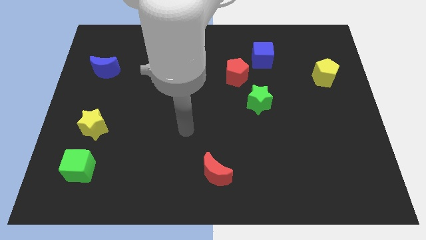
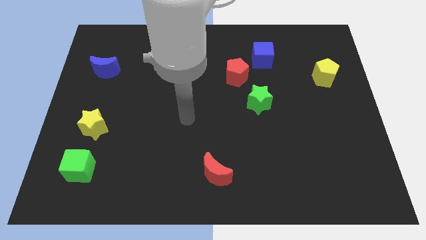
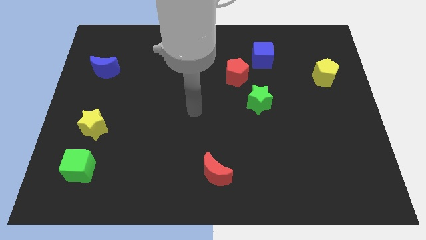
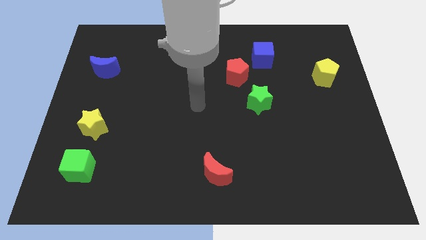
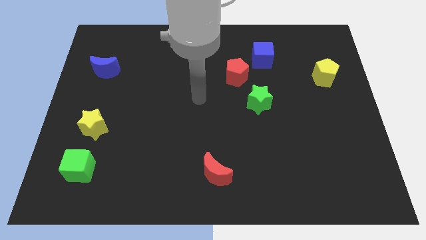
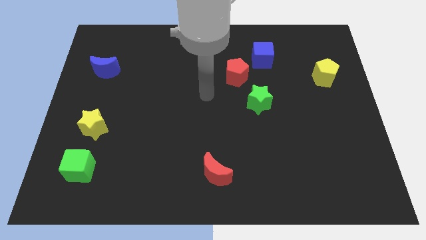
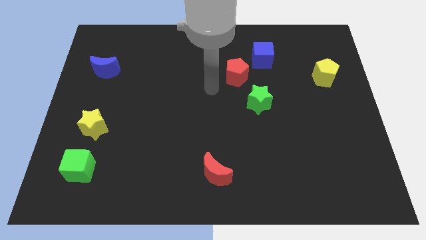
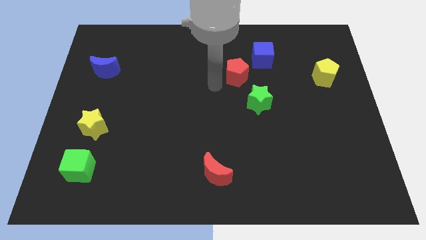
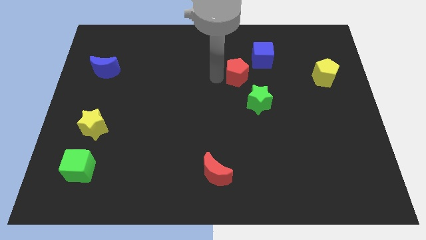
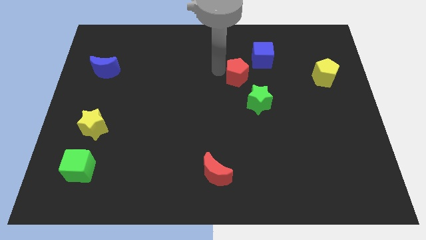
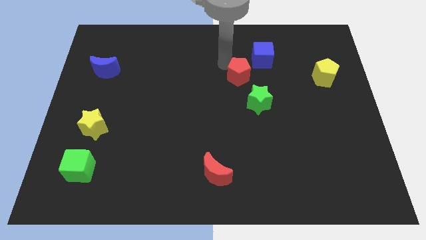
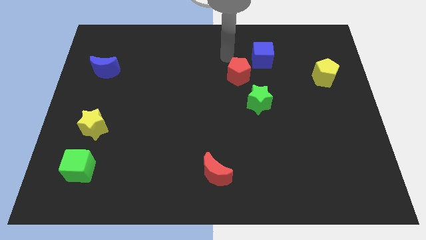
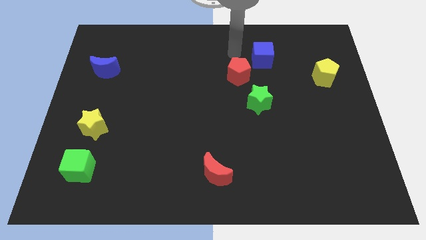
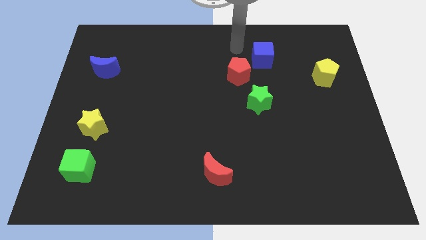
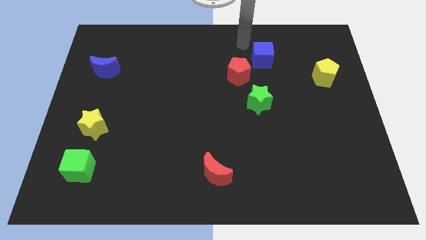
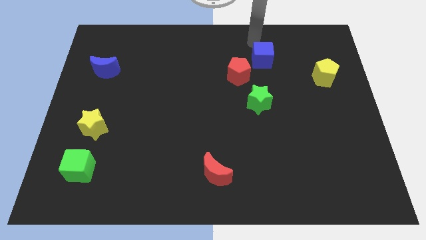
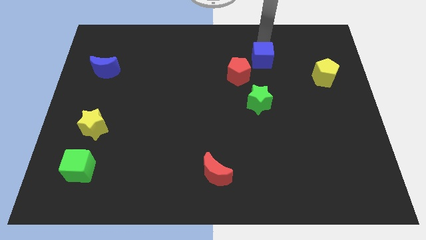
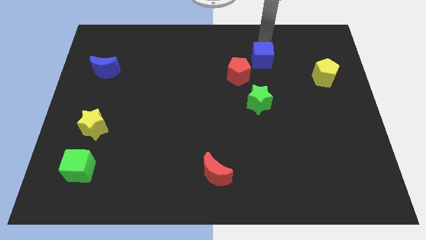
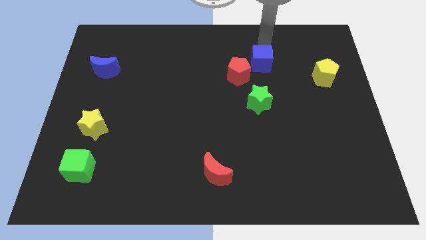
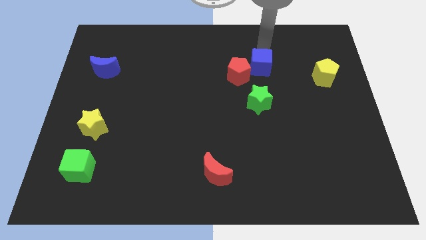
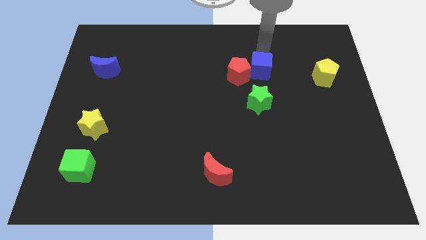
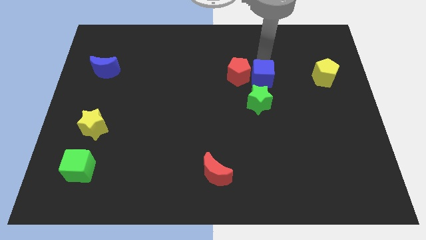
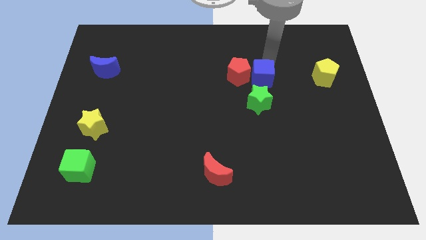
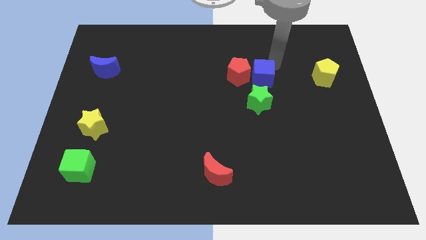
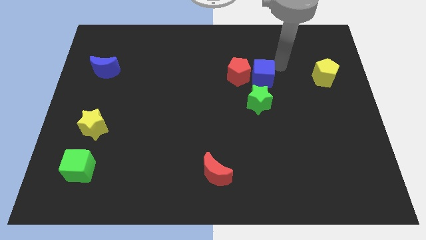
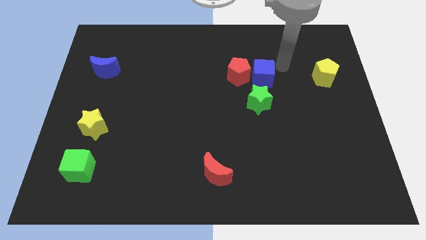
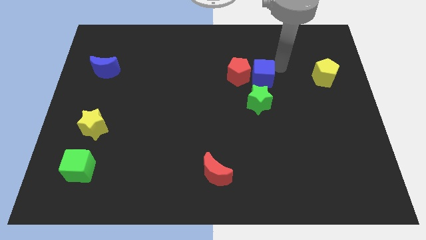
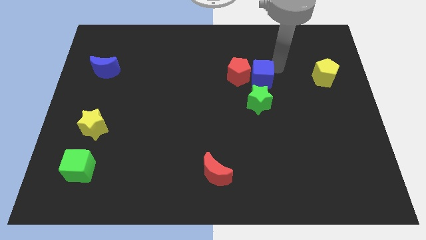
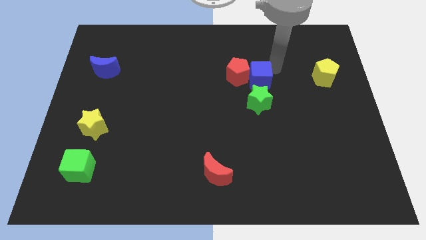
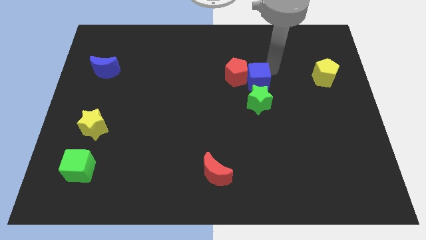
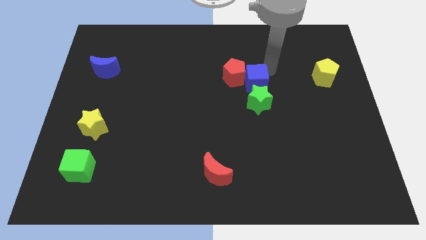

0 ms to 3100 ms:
slightly push the blue cube downwards and left diagonally

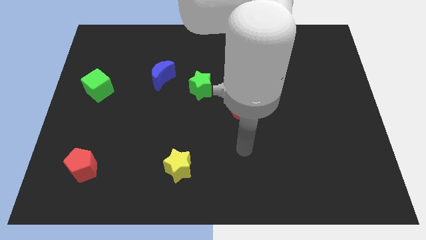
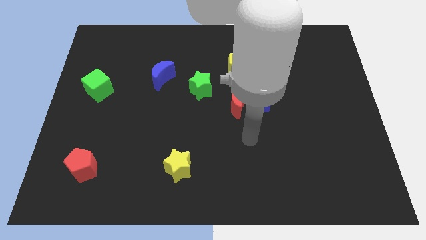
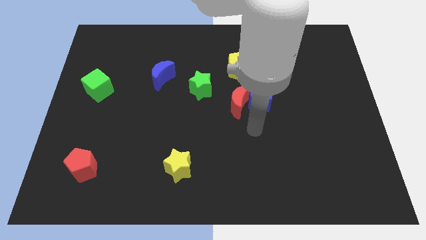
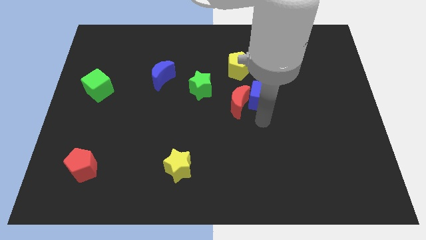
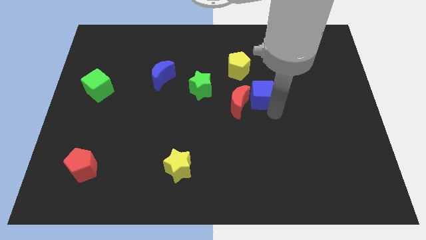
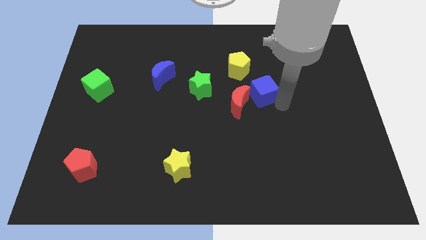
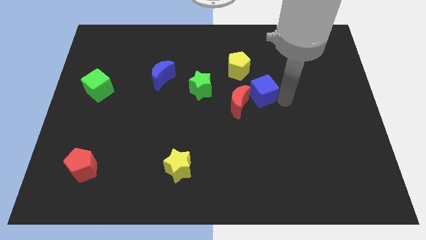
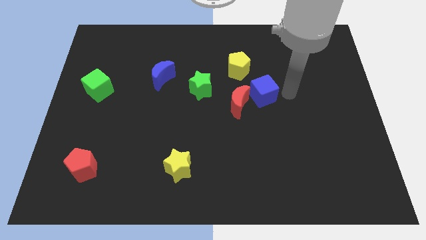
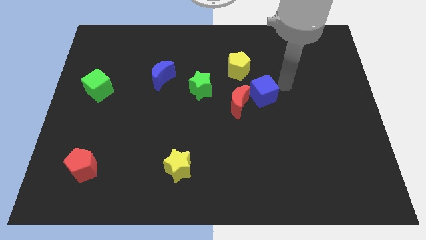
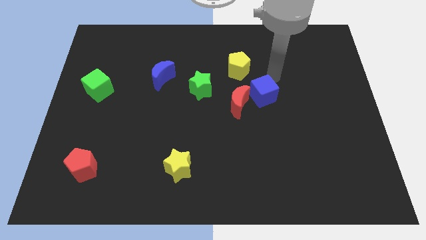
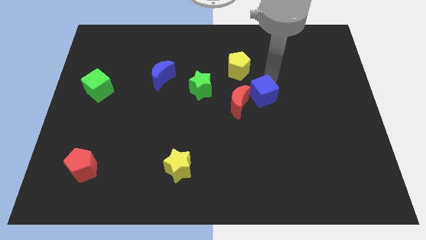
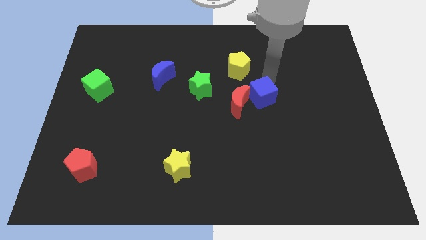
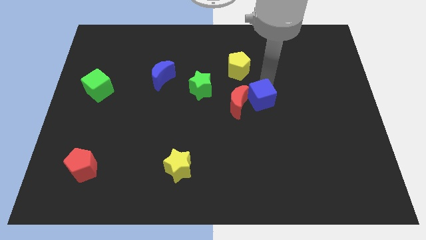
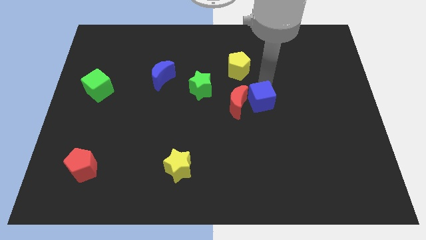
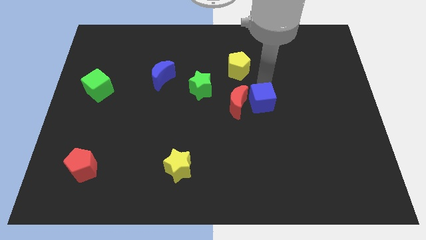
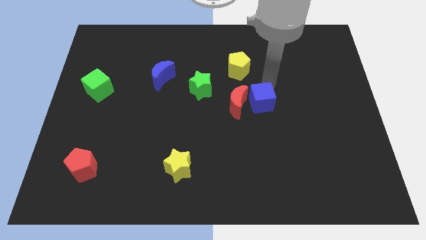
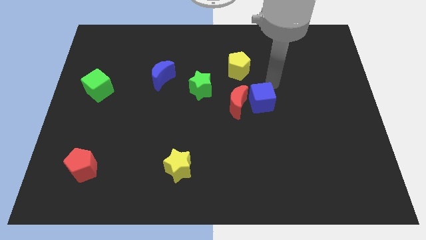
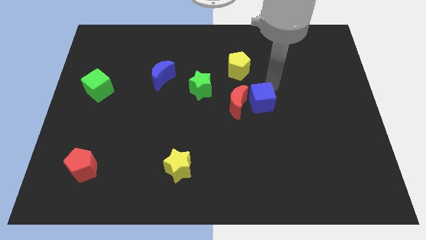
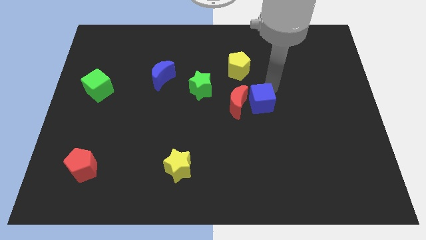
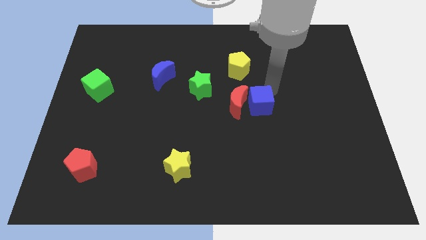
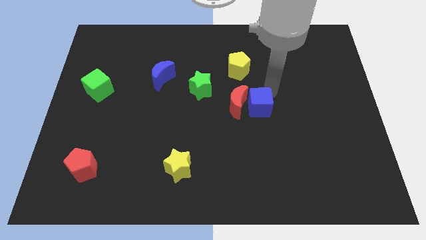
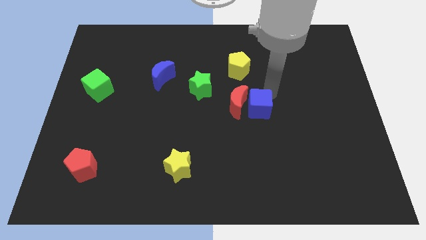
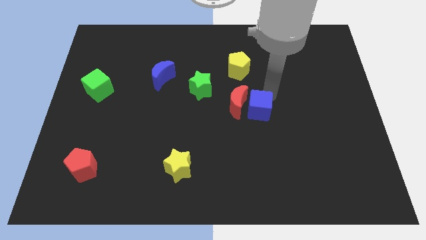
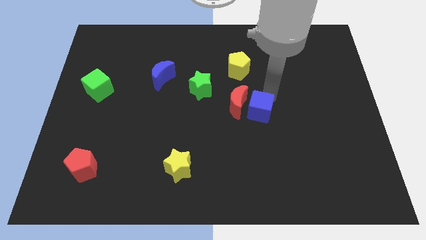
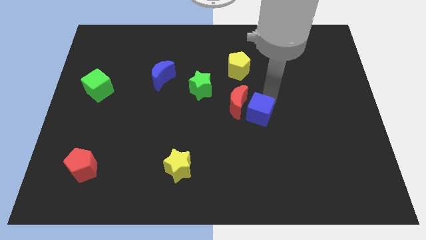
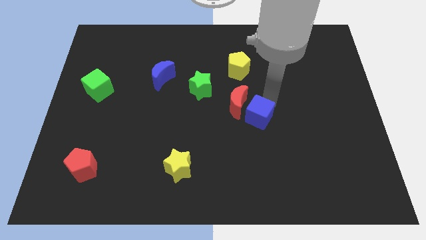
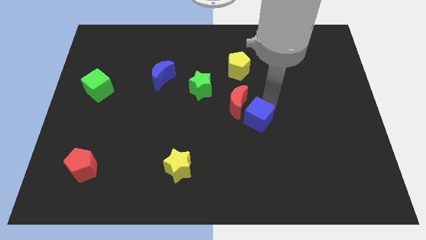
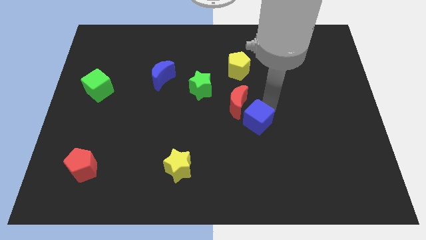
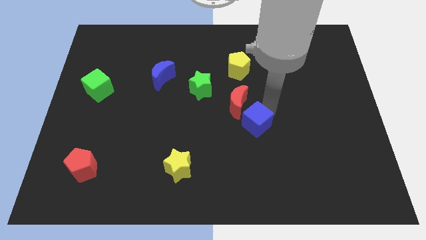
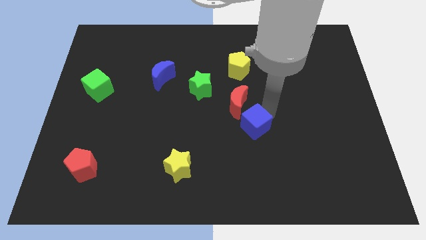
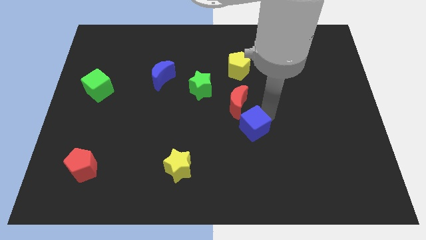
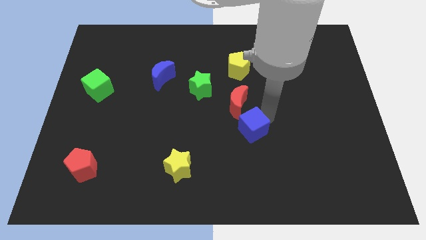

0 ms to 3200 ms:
slide the blue cube down and to the left somewhat

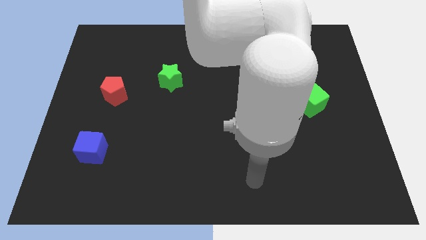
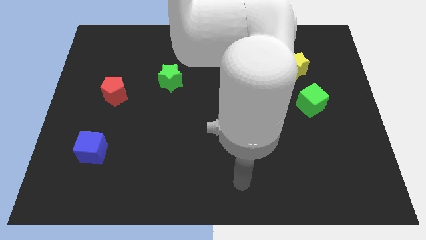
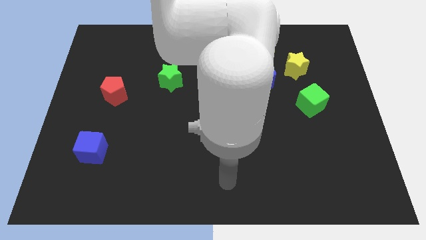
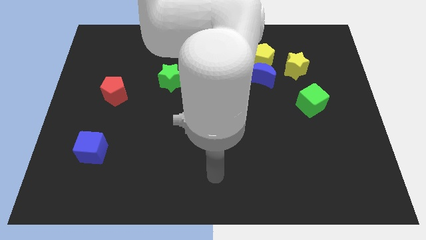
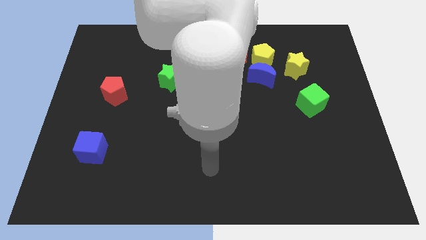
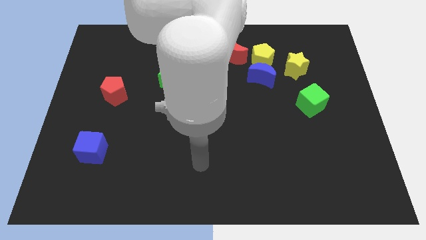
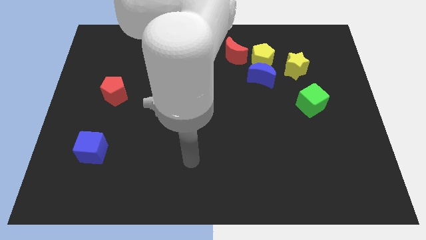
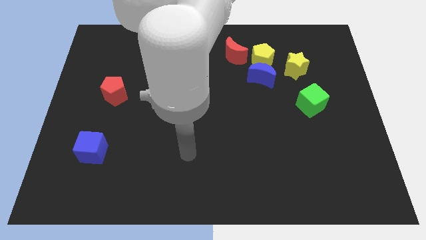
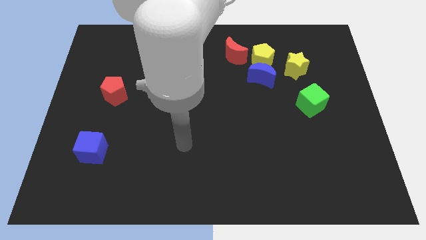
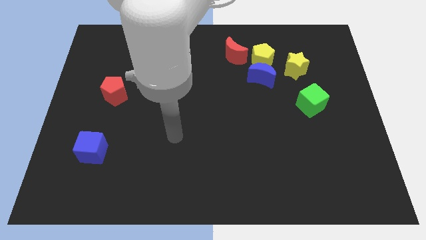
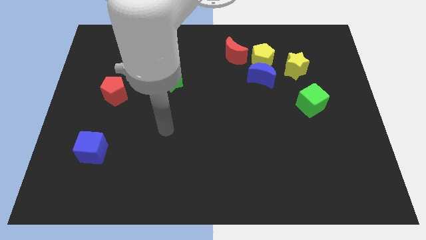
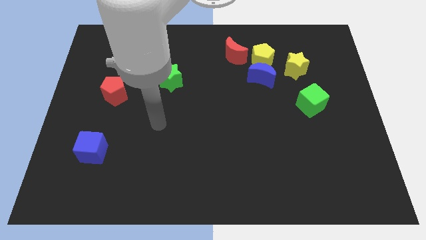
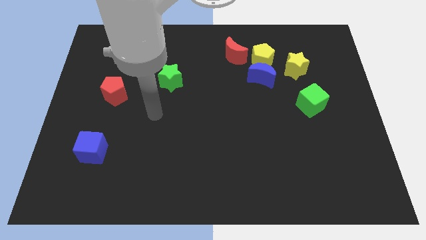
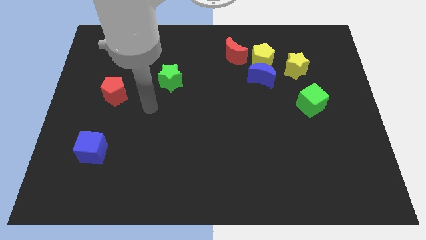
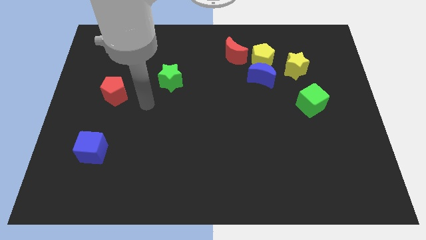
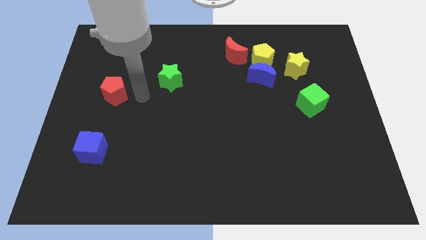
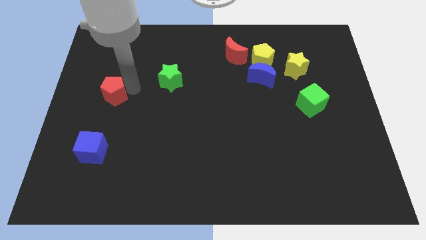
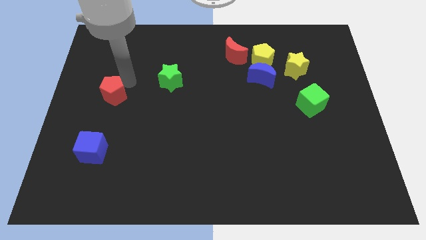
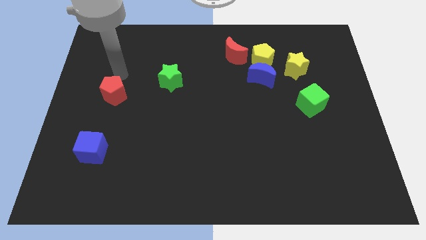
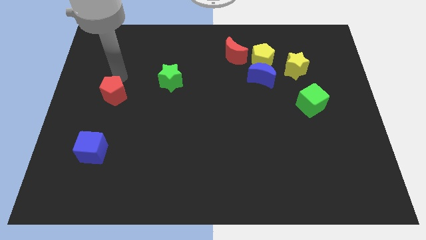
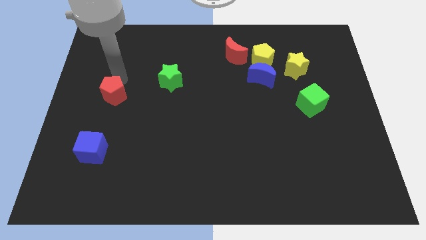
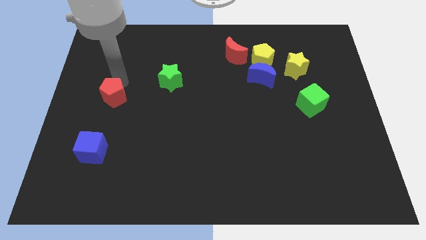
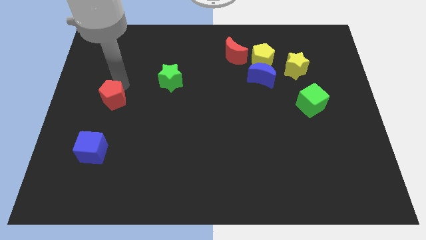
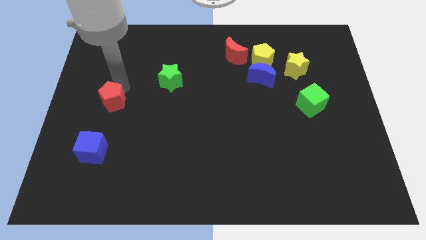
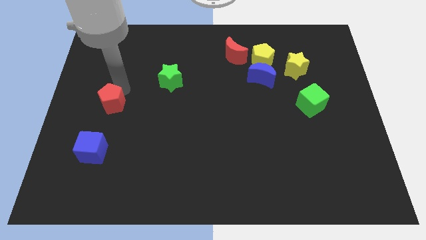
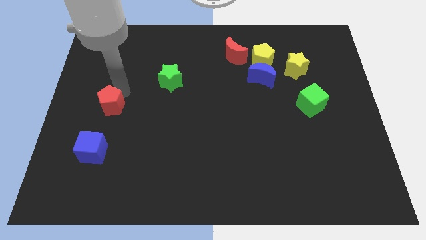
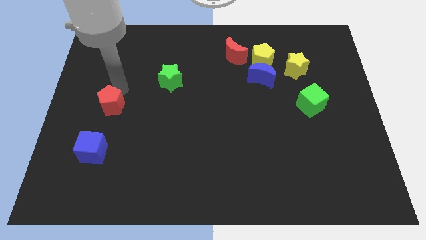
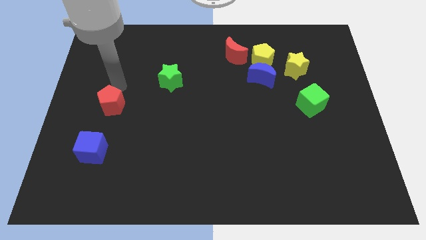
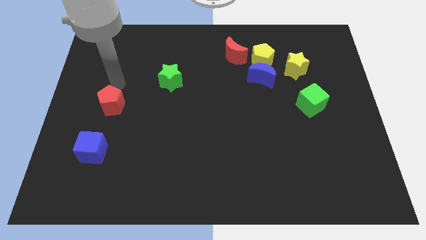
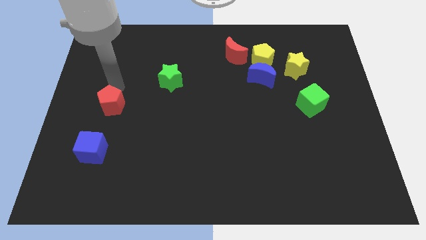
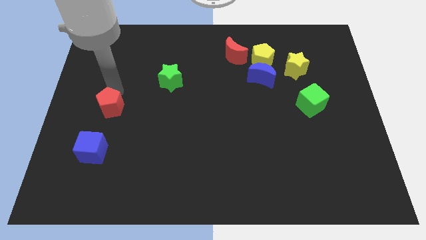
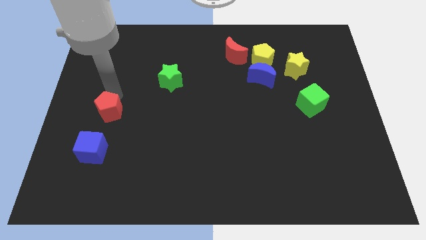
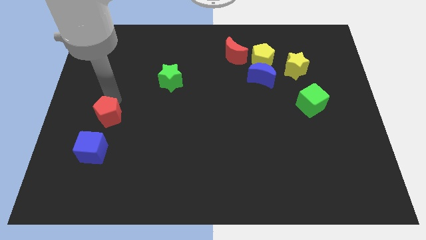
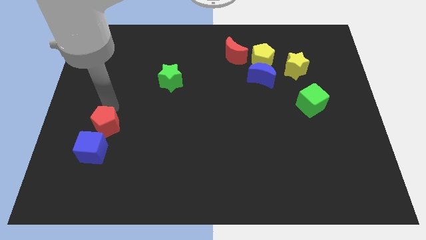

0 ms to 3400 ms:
slightly push the red pentagon down
